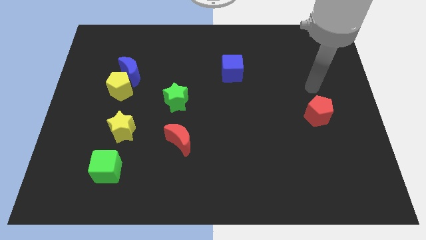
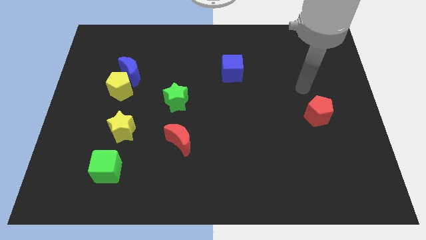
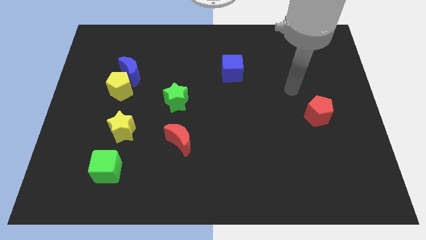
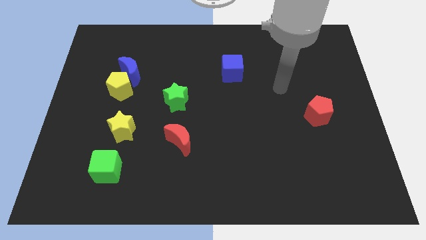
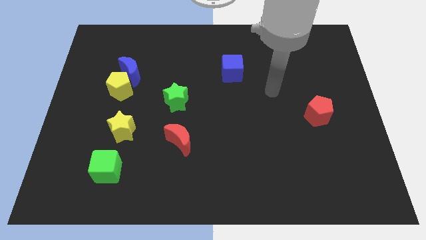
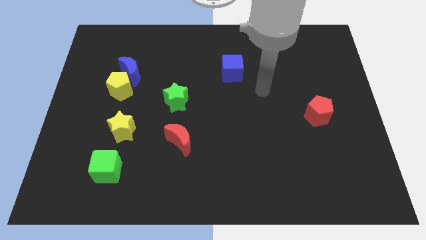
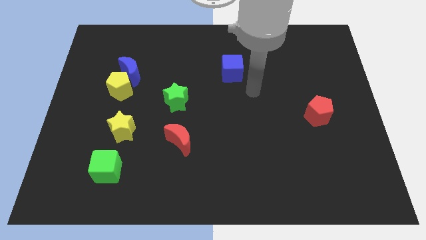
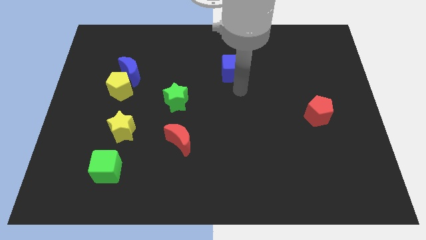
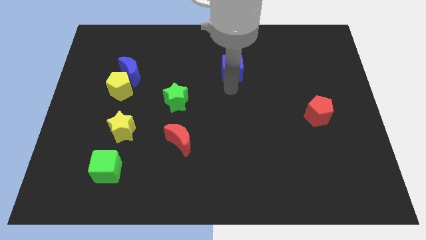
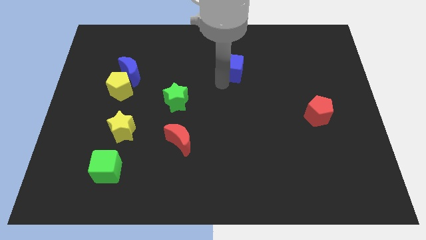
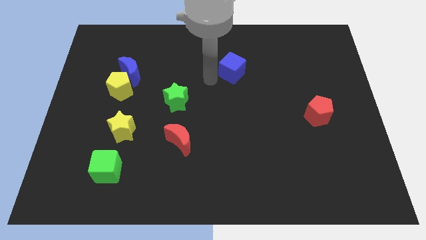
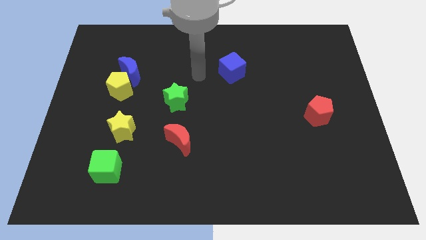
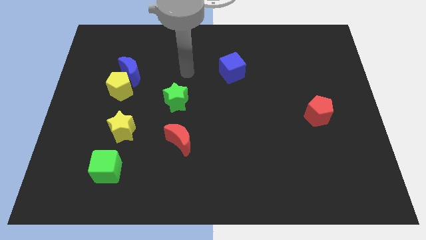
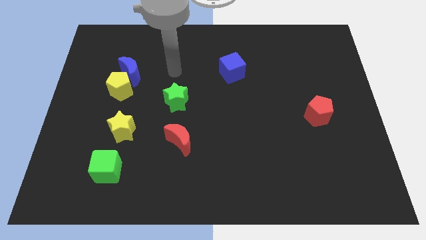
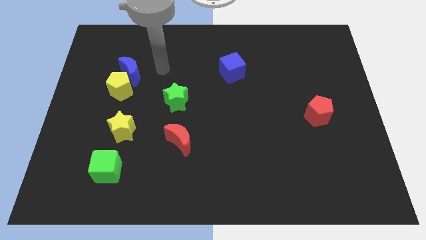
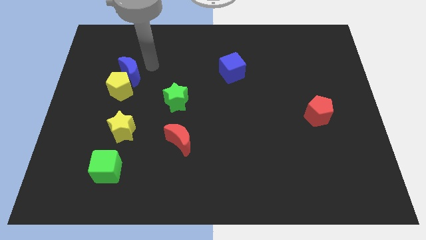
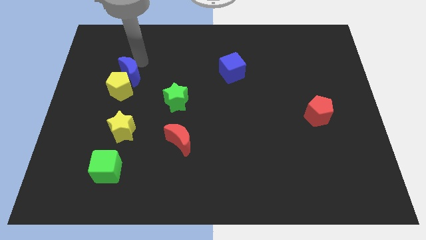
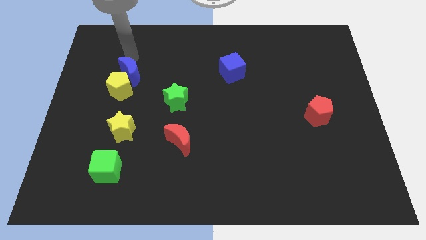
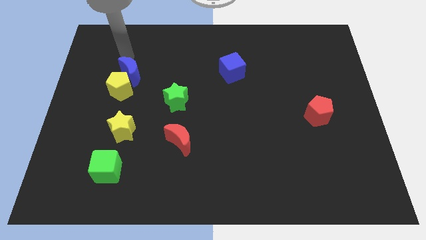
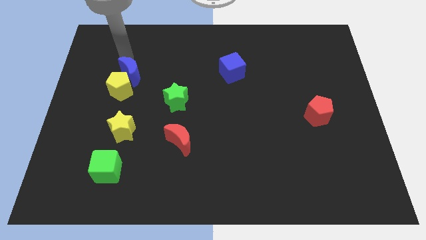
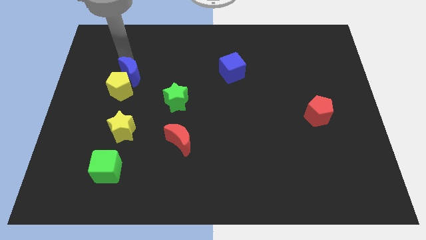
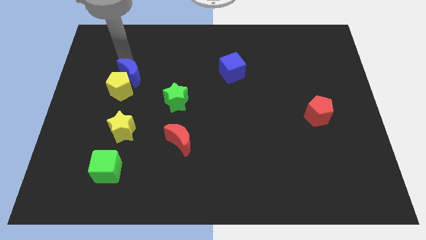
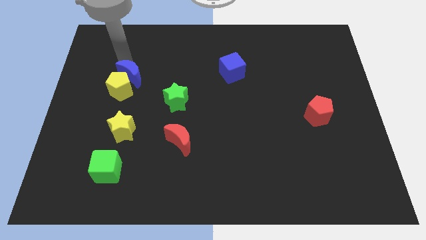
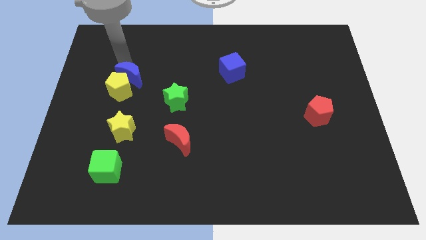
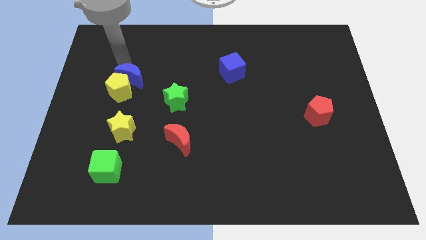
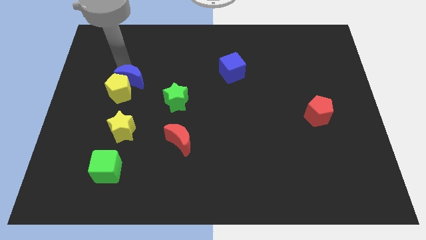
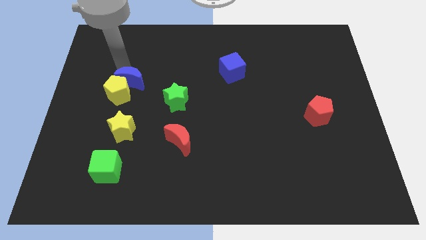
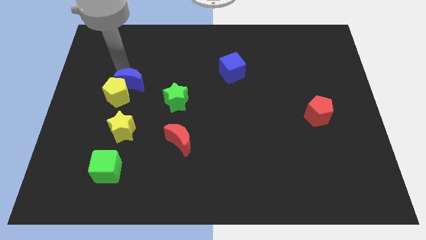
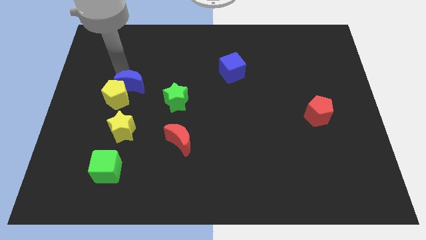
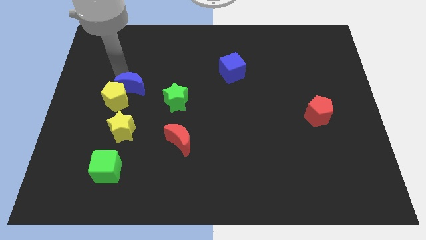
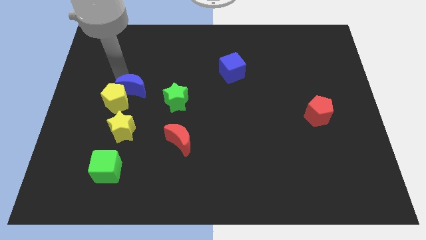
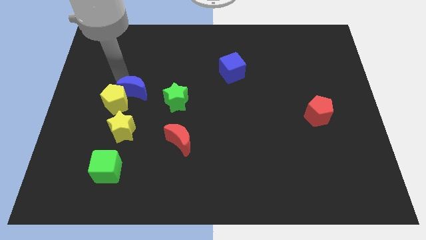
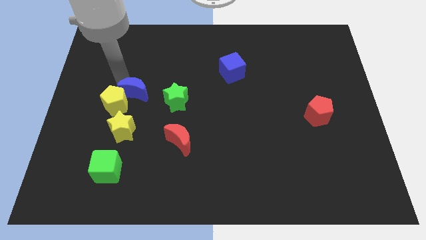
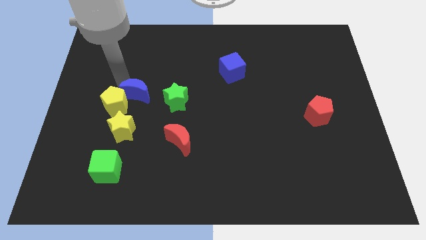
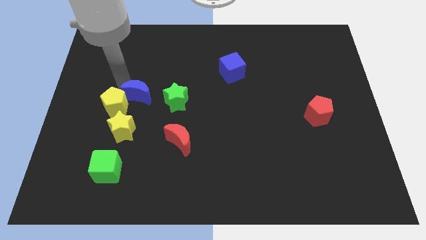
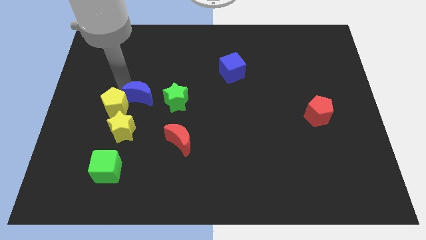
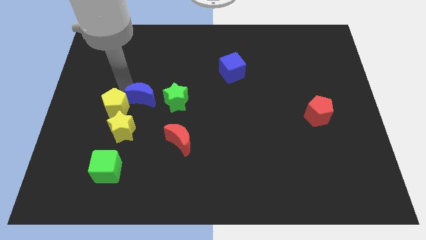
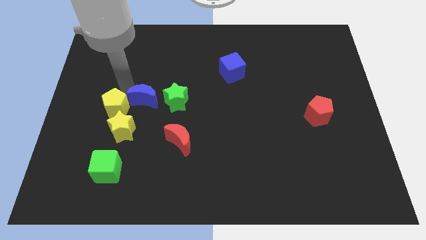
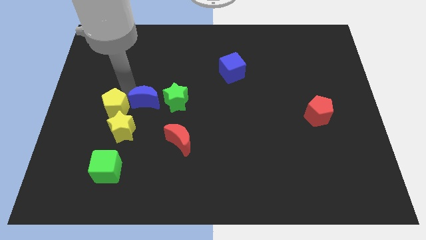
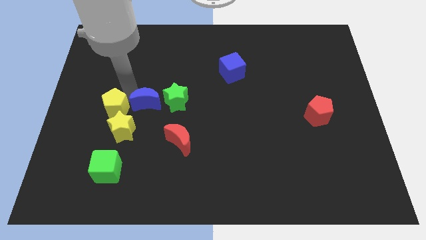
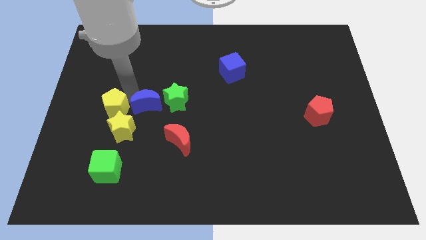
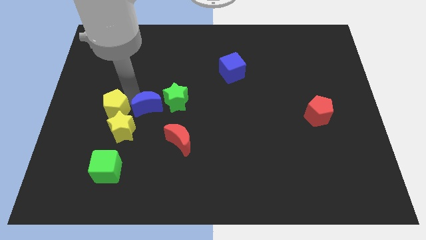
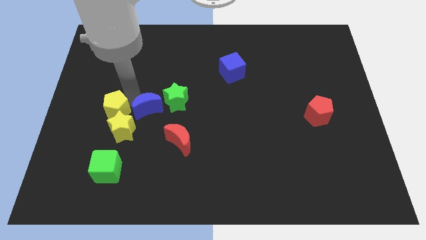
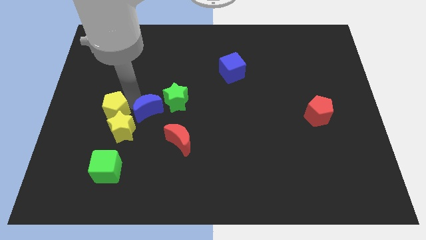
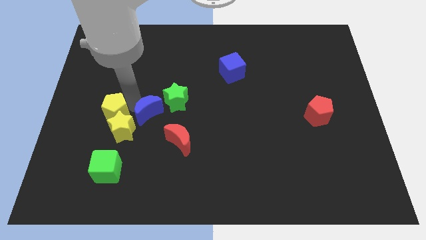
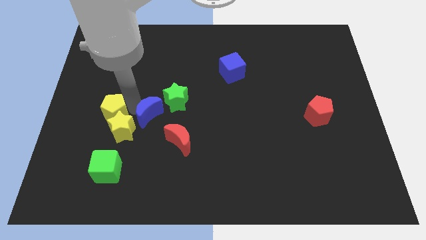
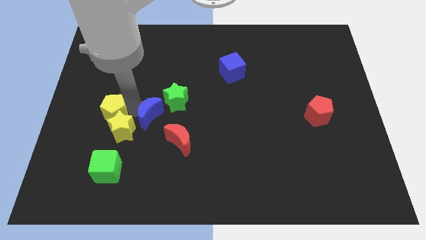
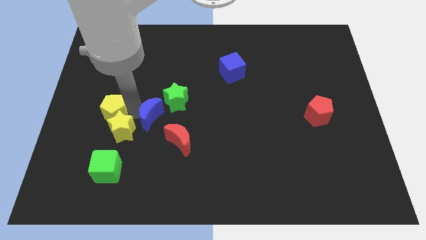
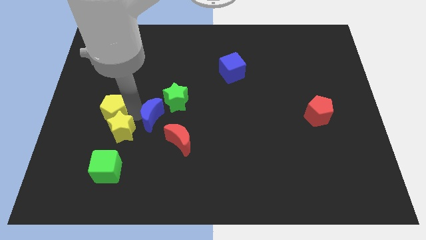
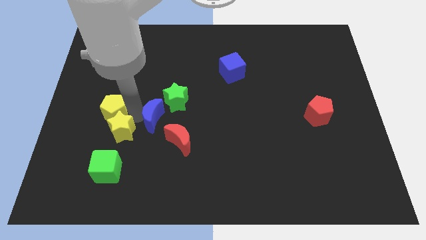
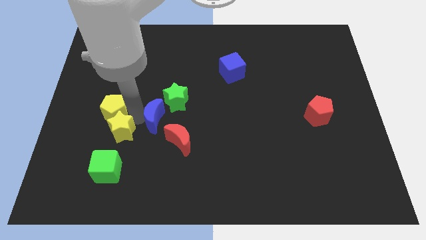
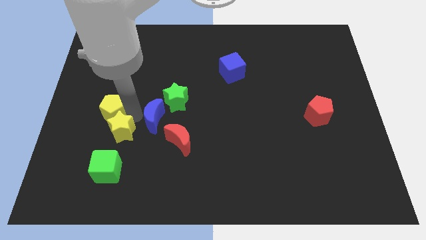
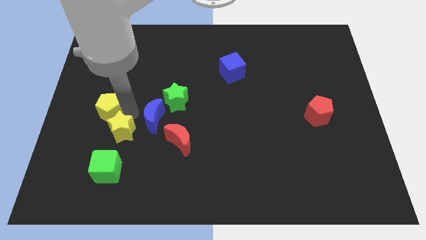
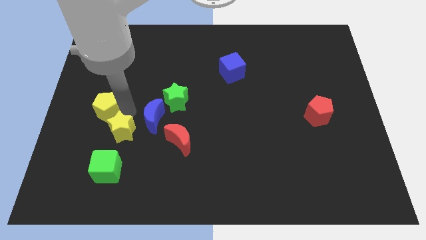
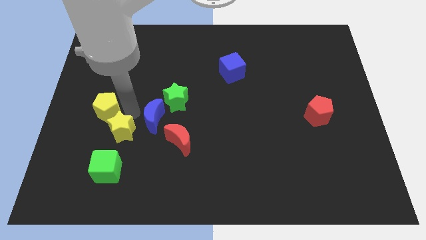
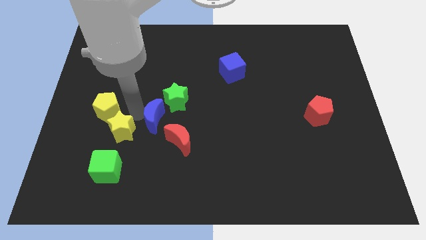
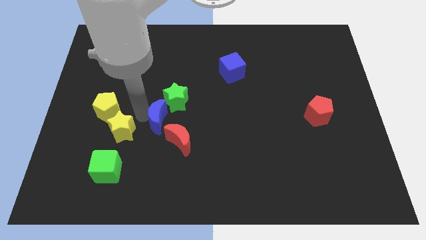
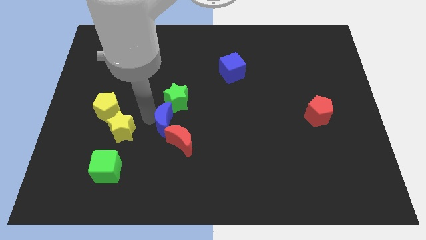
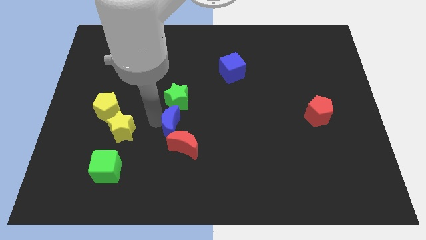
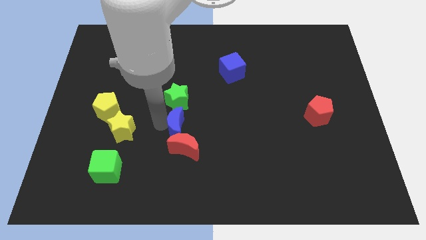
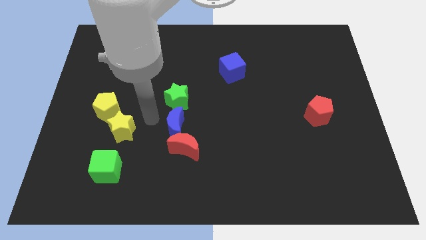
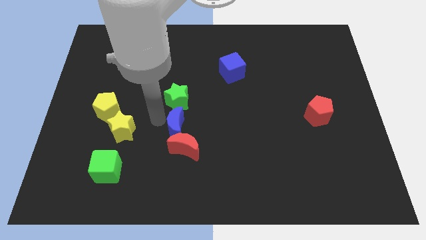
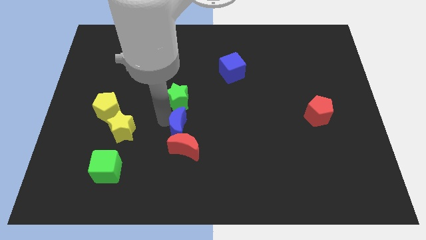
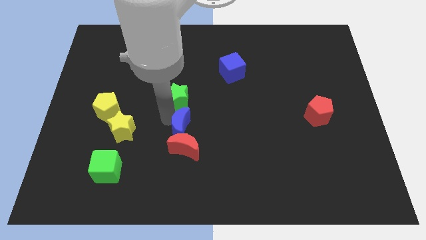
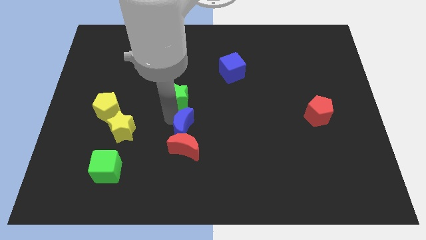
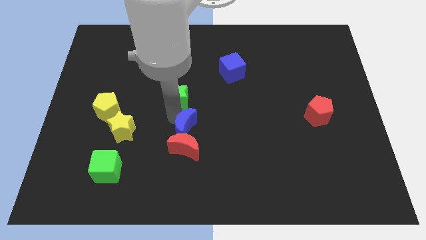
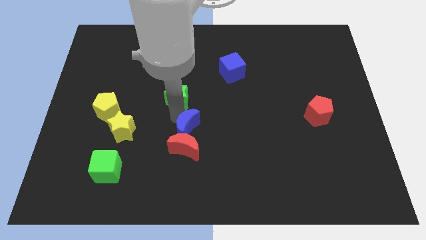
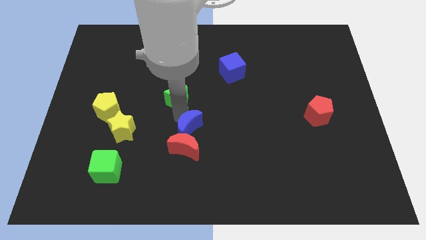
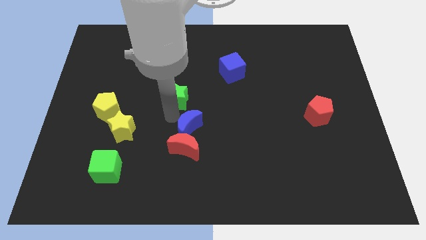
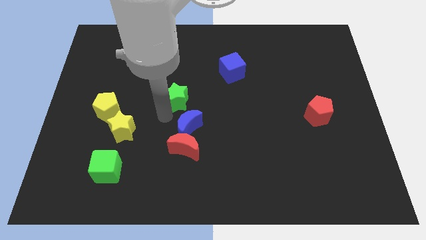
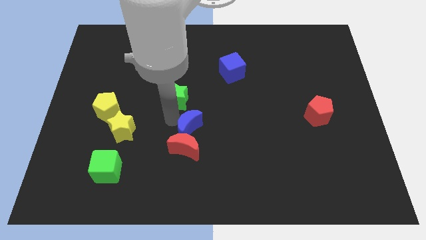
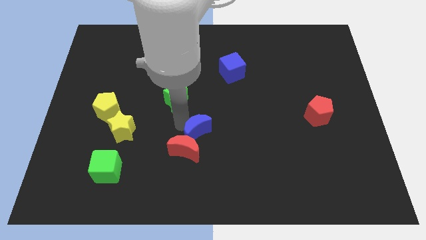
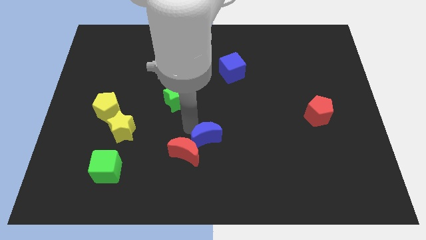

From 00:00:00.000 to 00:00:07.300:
slide the blue moon to the right of the red moon
